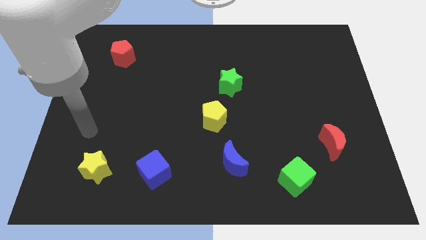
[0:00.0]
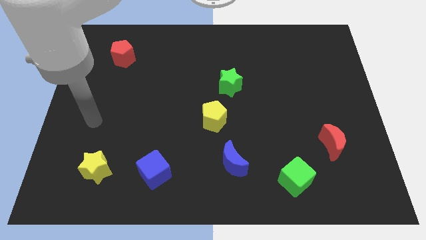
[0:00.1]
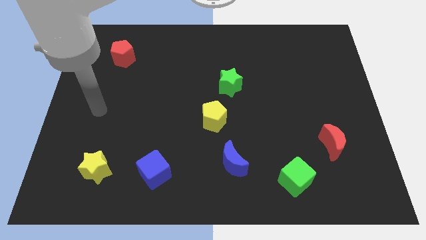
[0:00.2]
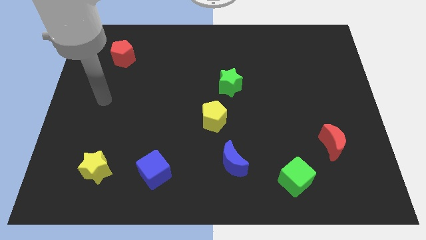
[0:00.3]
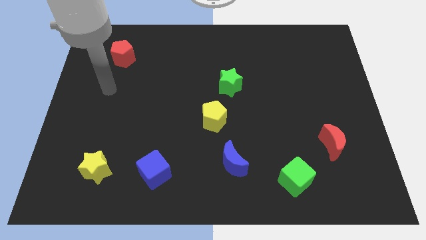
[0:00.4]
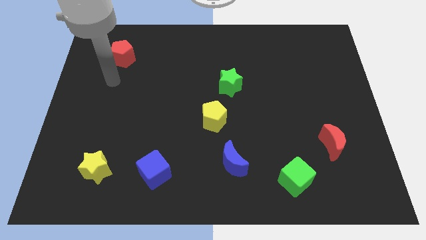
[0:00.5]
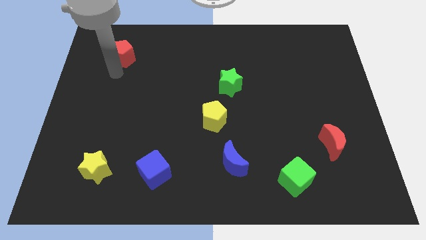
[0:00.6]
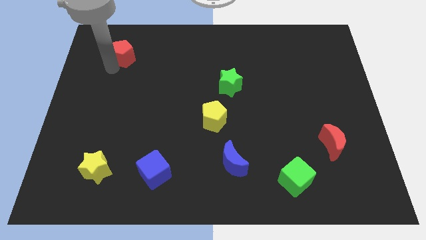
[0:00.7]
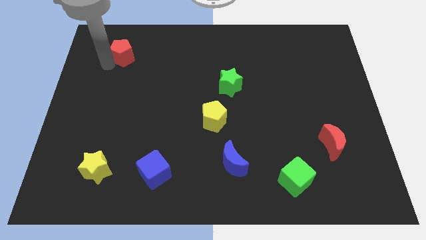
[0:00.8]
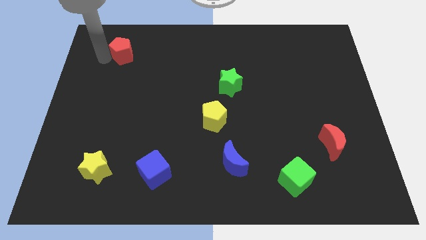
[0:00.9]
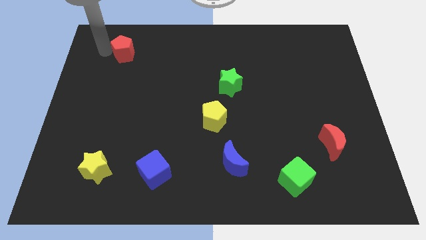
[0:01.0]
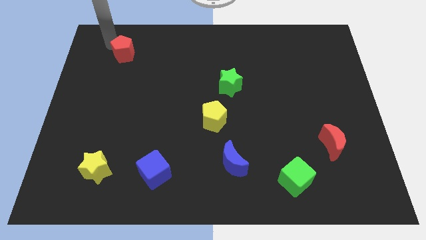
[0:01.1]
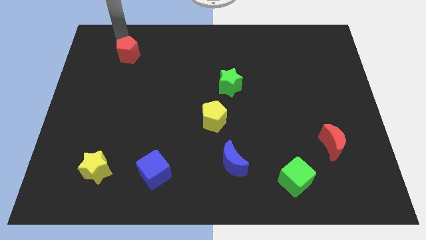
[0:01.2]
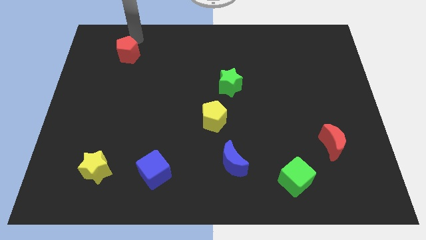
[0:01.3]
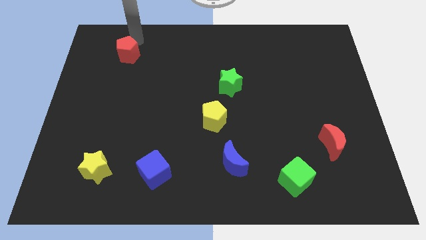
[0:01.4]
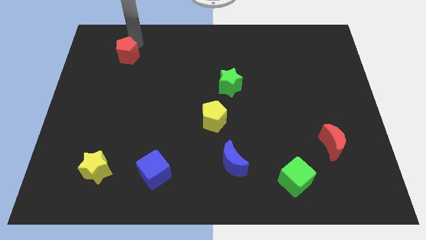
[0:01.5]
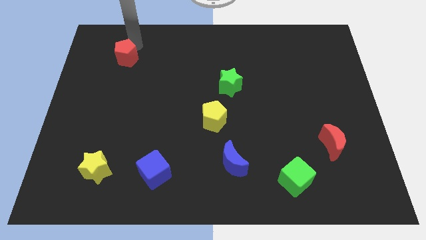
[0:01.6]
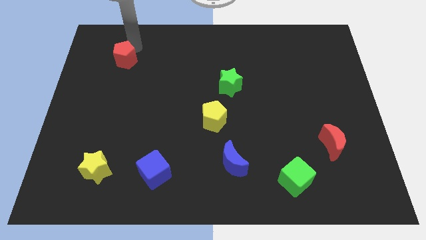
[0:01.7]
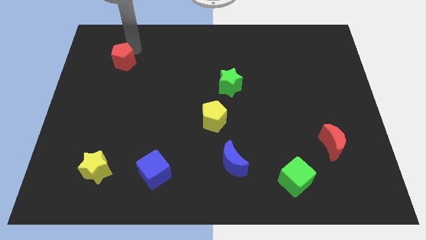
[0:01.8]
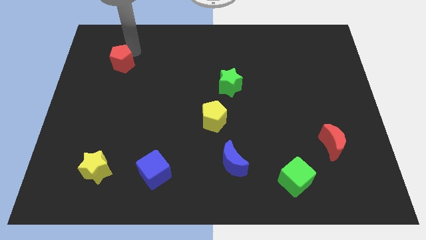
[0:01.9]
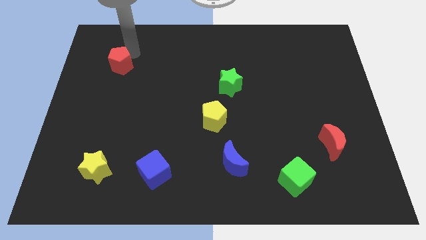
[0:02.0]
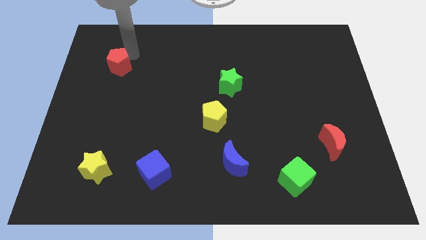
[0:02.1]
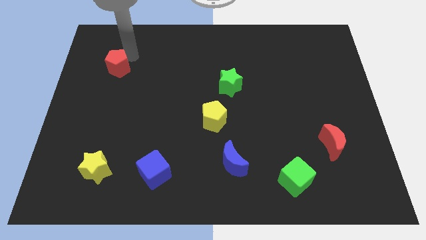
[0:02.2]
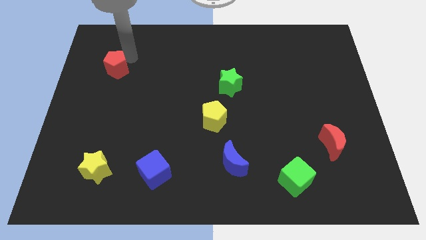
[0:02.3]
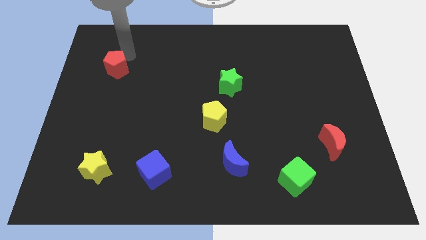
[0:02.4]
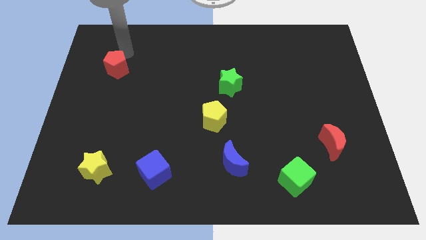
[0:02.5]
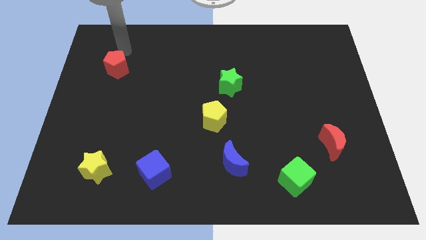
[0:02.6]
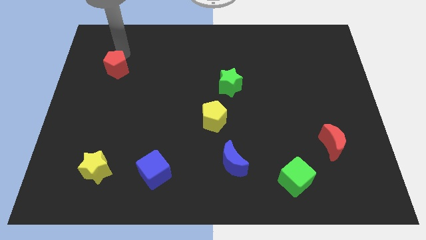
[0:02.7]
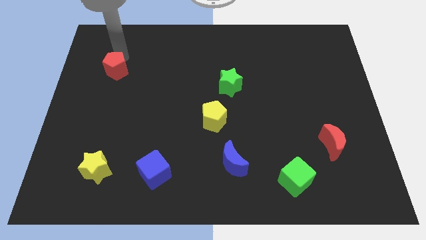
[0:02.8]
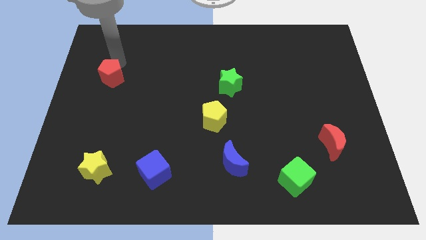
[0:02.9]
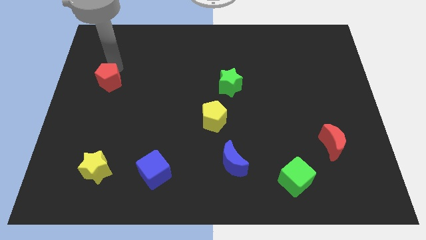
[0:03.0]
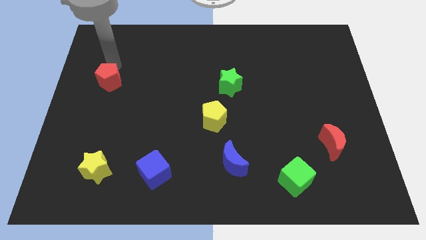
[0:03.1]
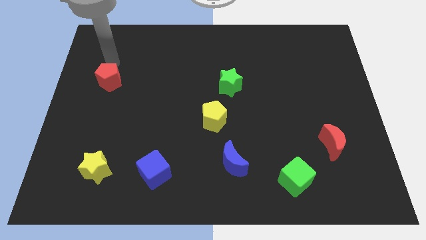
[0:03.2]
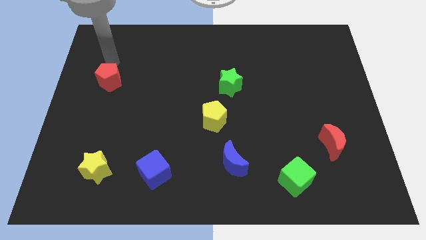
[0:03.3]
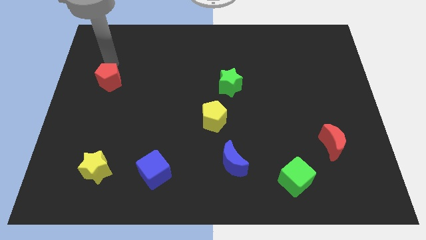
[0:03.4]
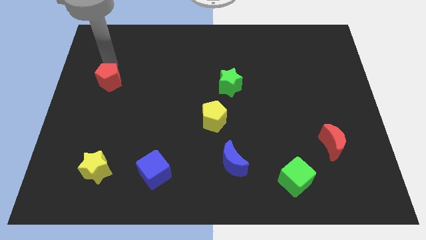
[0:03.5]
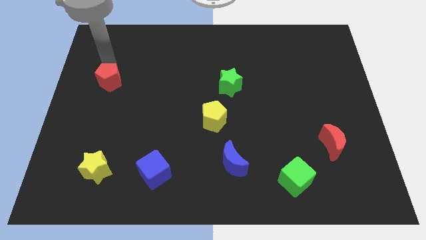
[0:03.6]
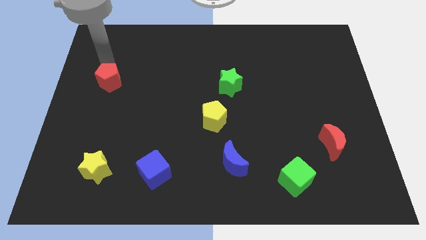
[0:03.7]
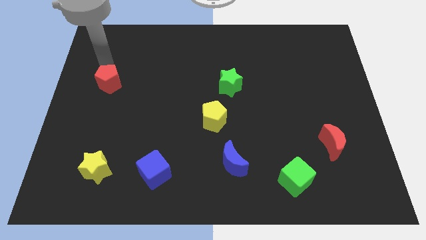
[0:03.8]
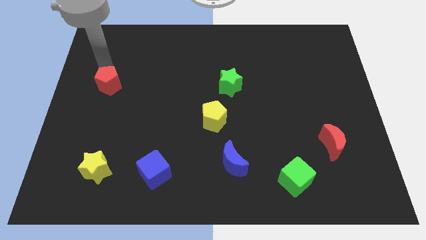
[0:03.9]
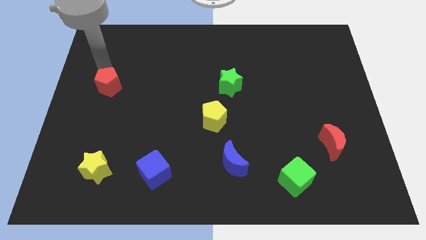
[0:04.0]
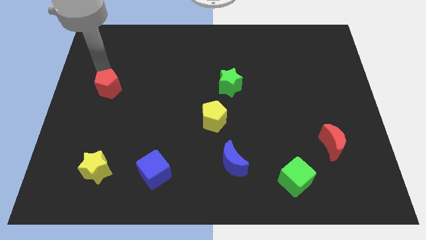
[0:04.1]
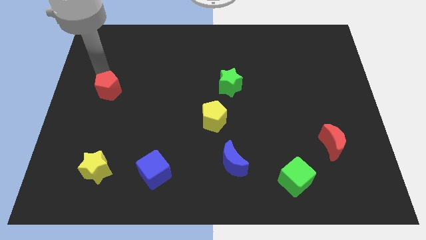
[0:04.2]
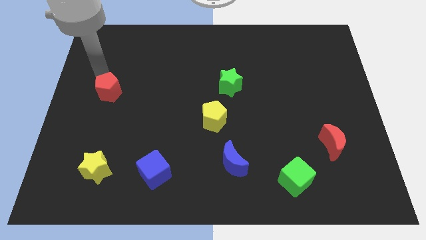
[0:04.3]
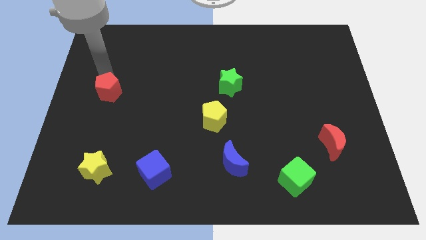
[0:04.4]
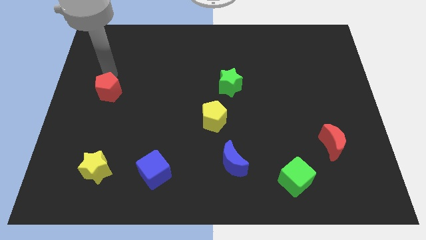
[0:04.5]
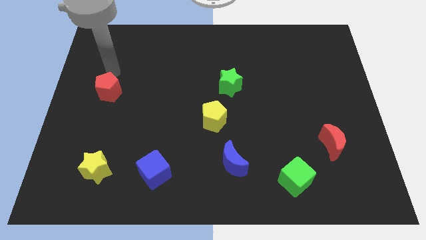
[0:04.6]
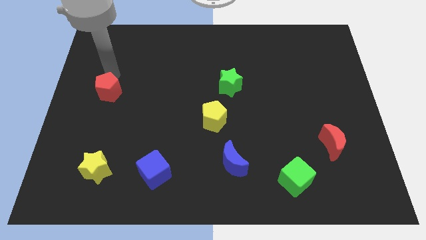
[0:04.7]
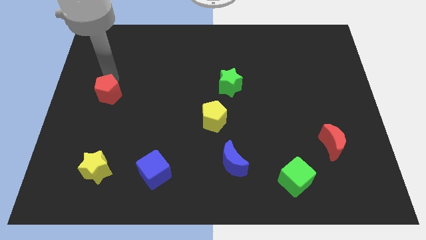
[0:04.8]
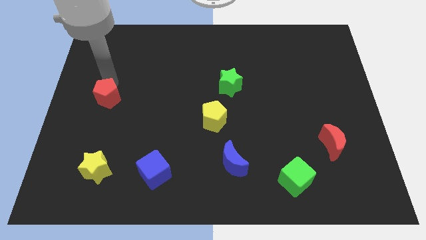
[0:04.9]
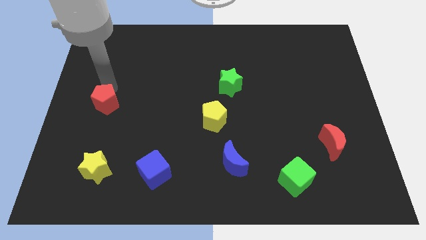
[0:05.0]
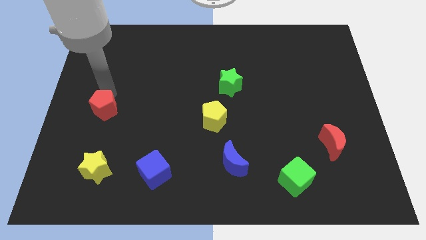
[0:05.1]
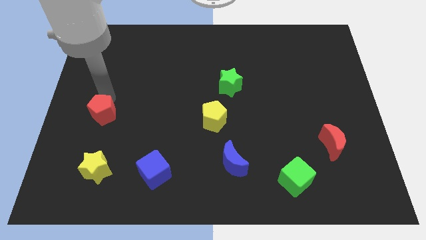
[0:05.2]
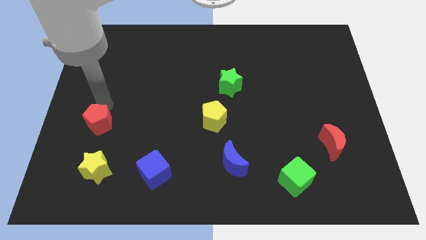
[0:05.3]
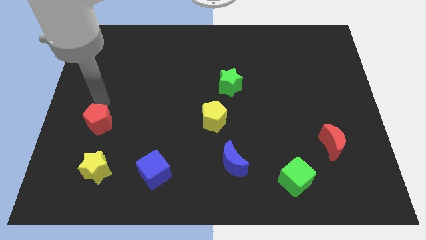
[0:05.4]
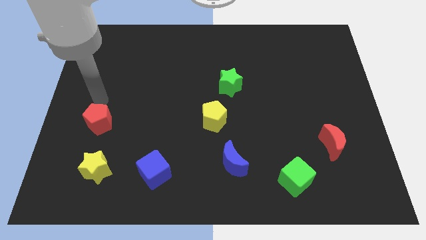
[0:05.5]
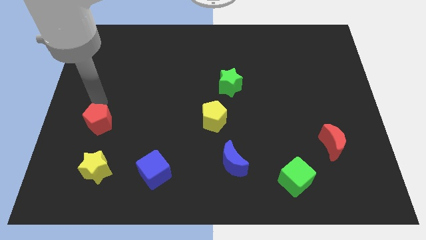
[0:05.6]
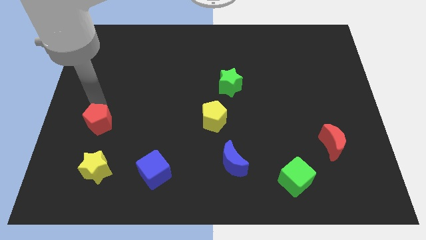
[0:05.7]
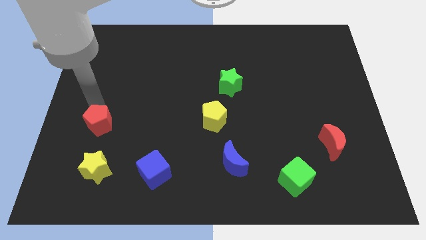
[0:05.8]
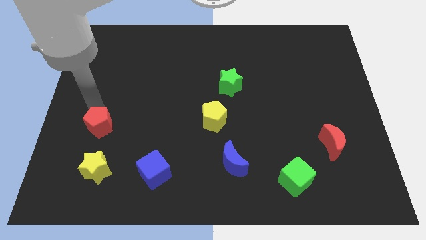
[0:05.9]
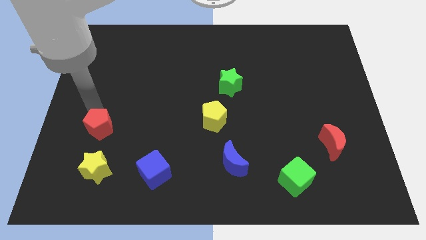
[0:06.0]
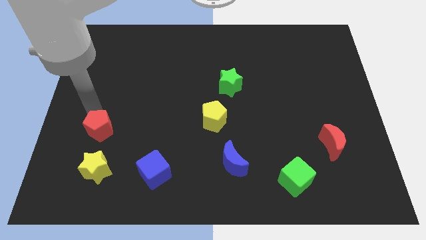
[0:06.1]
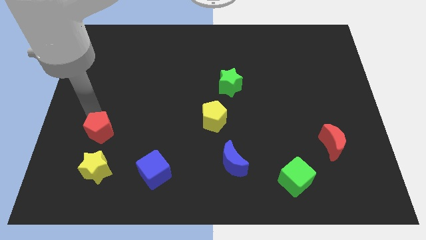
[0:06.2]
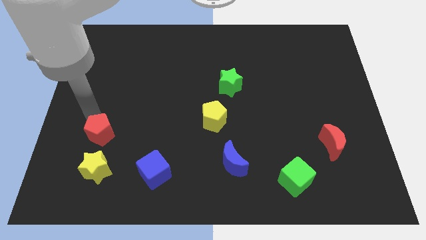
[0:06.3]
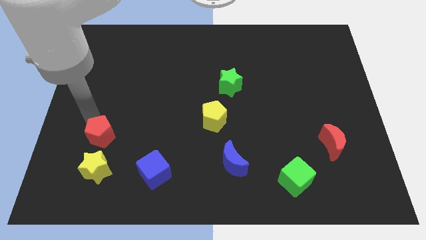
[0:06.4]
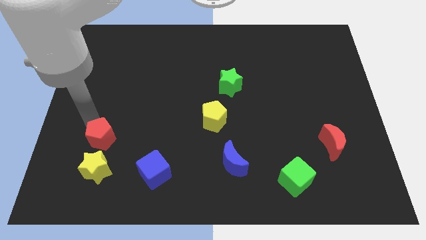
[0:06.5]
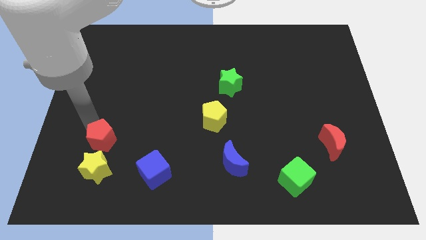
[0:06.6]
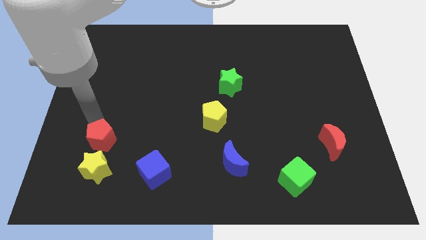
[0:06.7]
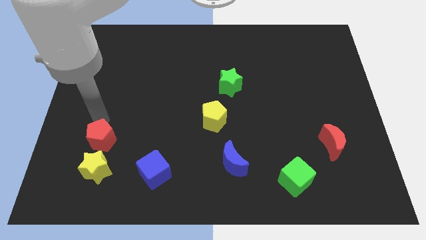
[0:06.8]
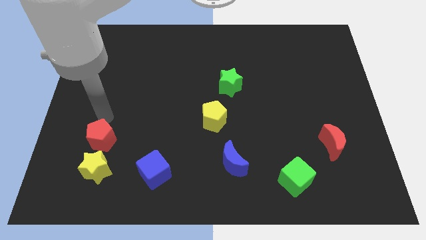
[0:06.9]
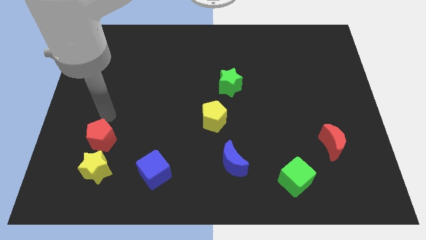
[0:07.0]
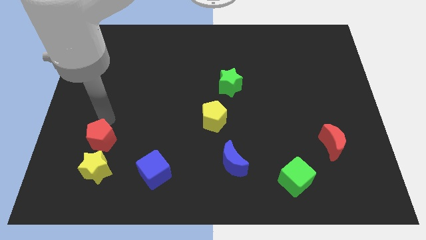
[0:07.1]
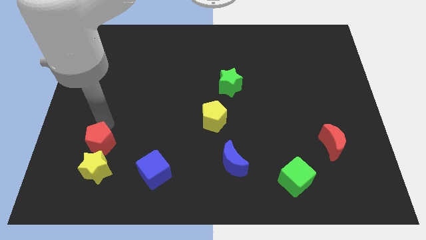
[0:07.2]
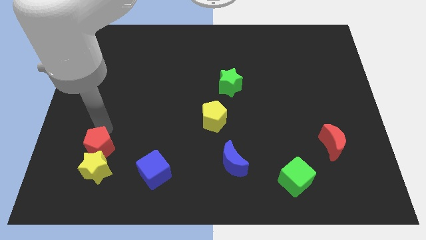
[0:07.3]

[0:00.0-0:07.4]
put the red pentagon close to the yellow star

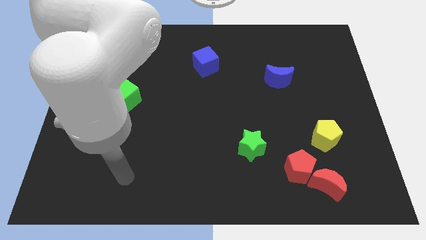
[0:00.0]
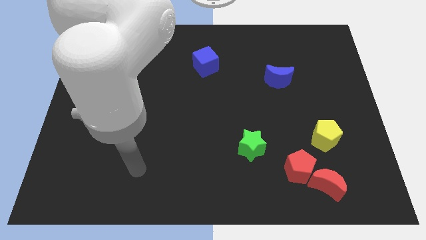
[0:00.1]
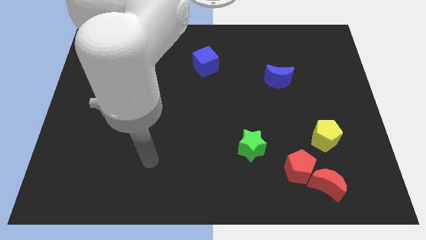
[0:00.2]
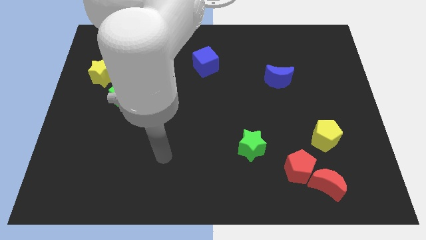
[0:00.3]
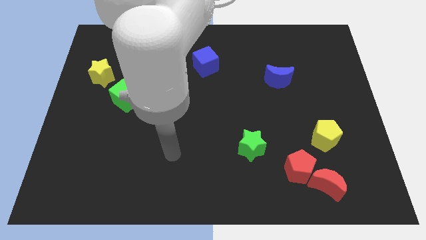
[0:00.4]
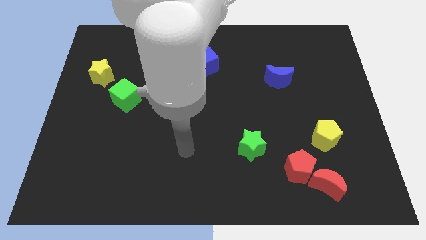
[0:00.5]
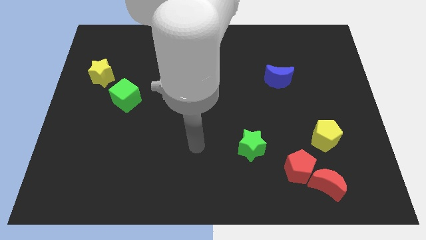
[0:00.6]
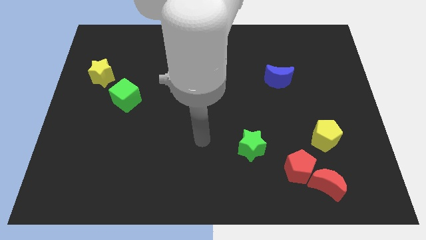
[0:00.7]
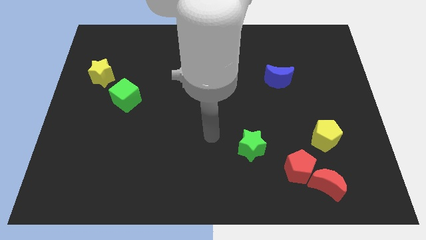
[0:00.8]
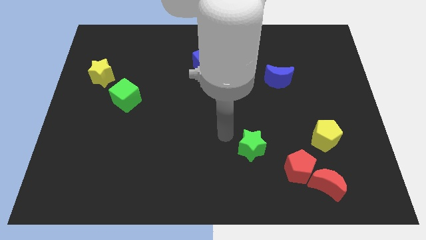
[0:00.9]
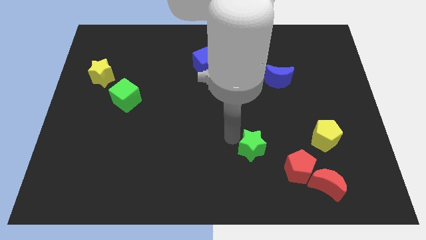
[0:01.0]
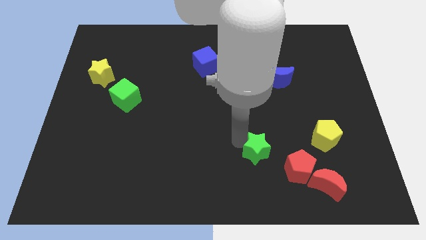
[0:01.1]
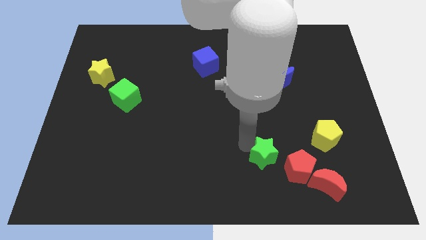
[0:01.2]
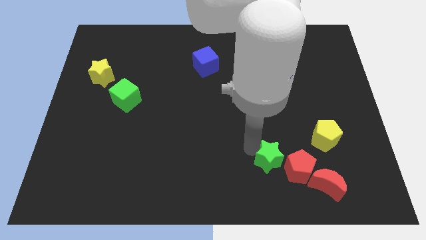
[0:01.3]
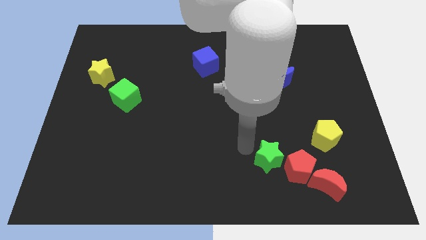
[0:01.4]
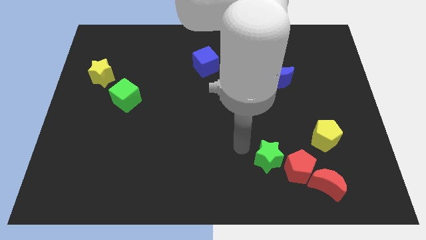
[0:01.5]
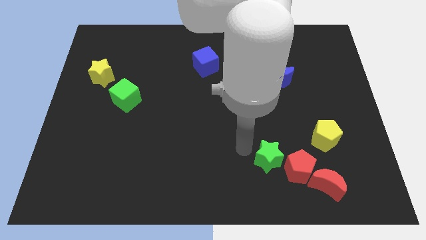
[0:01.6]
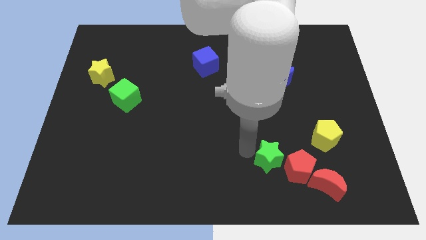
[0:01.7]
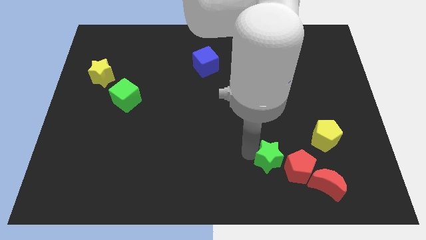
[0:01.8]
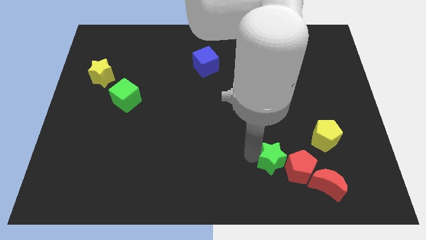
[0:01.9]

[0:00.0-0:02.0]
move the green star close to the red pentagon
